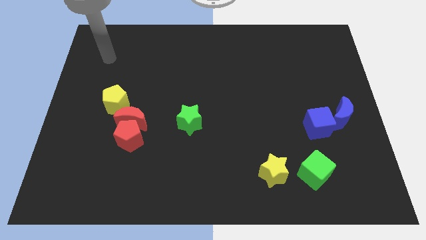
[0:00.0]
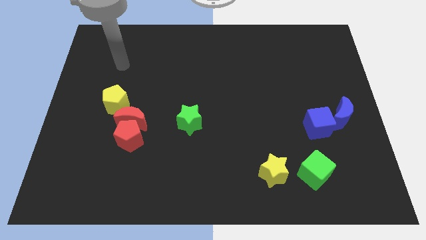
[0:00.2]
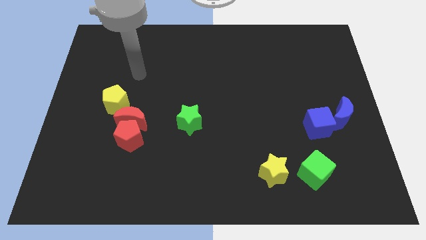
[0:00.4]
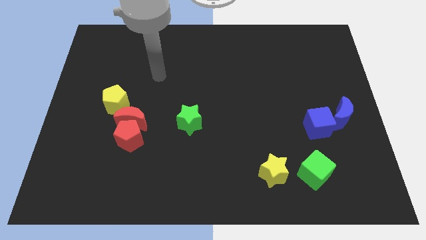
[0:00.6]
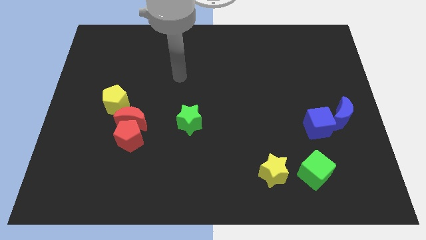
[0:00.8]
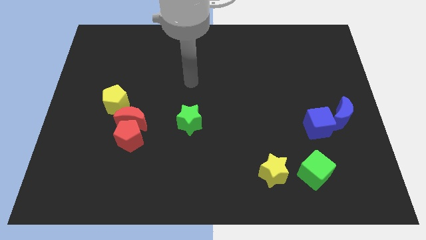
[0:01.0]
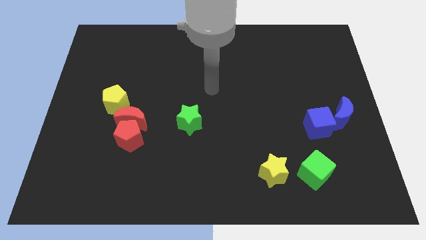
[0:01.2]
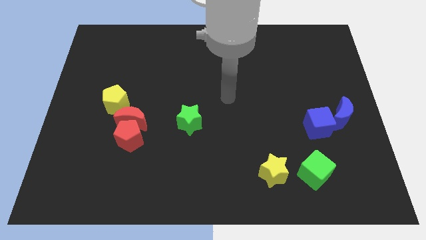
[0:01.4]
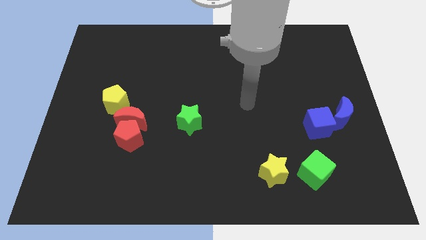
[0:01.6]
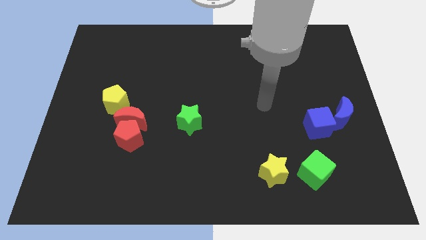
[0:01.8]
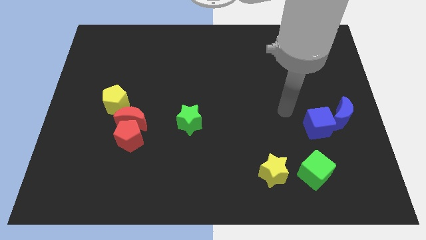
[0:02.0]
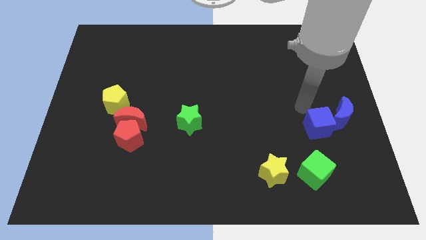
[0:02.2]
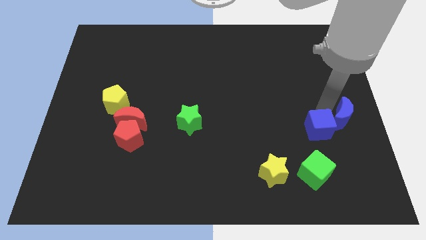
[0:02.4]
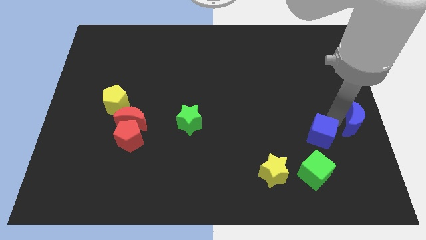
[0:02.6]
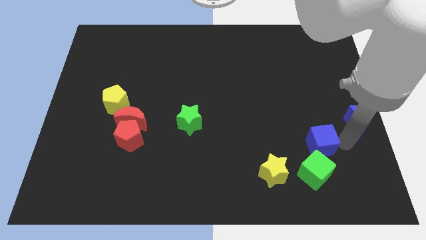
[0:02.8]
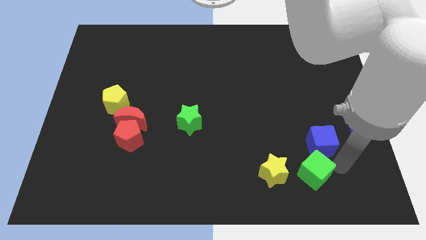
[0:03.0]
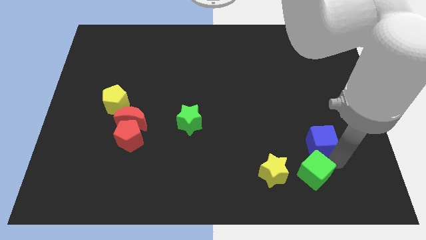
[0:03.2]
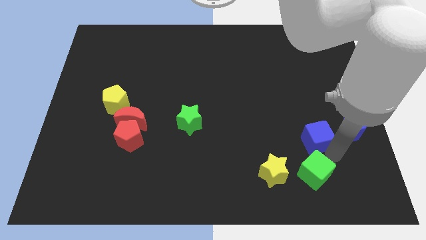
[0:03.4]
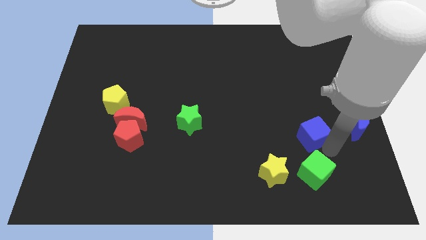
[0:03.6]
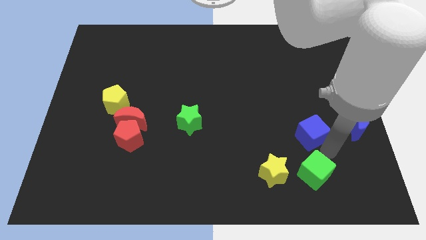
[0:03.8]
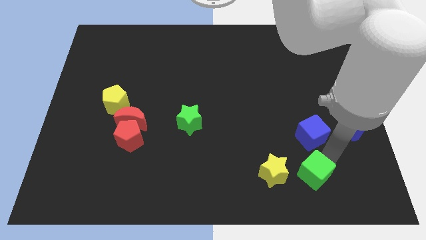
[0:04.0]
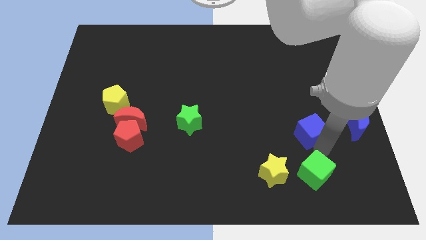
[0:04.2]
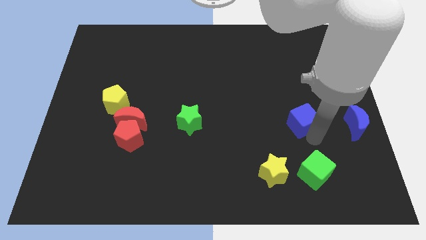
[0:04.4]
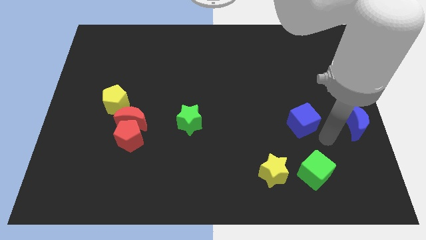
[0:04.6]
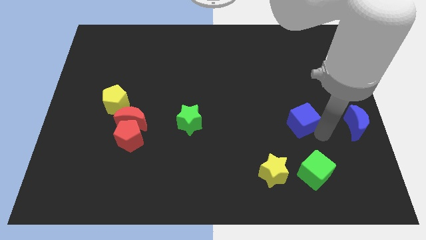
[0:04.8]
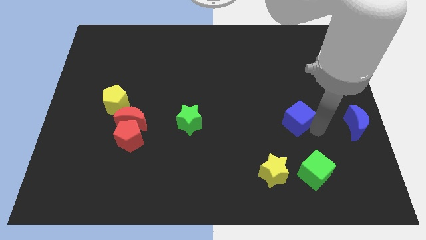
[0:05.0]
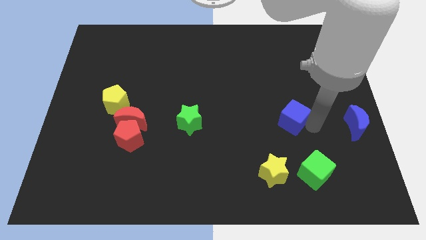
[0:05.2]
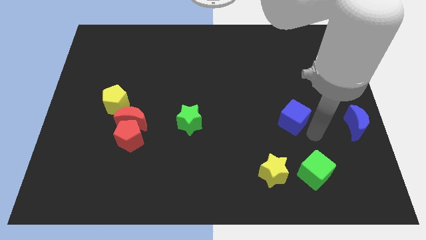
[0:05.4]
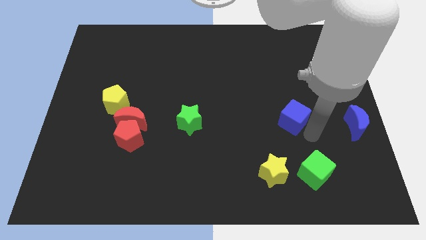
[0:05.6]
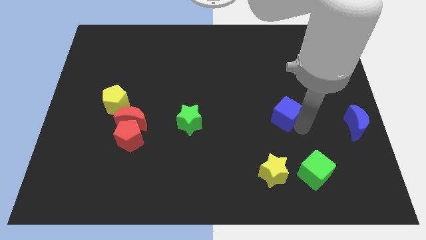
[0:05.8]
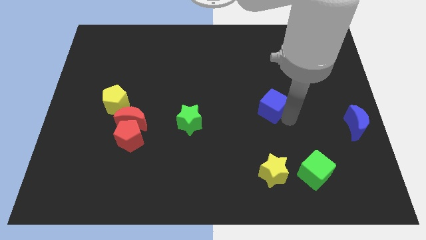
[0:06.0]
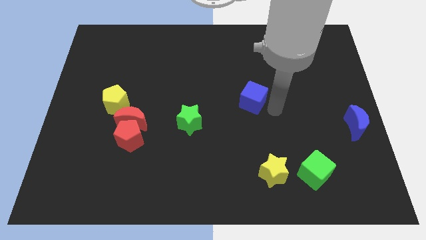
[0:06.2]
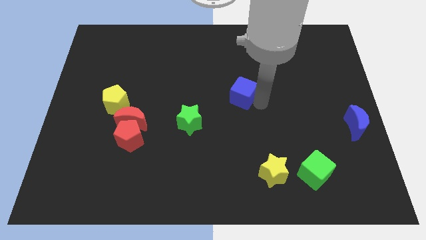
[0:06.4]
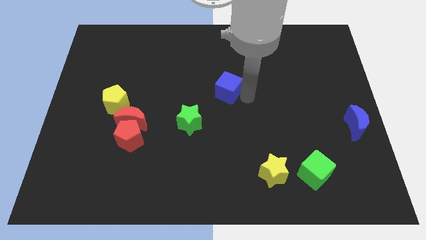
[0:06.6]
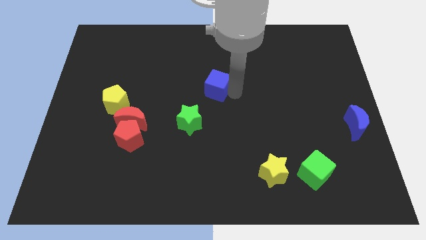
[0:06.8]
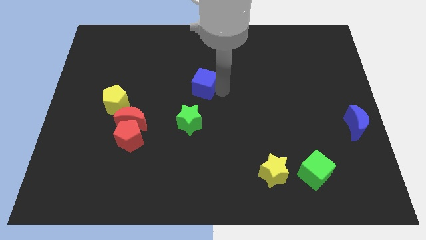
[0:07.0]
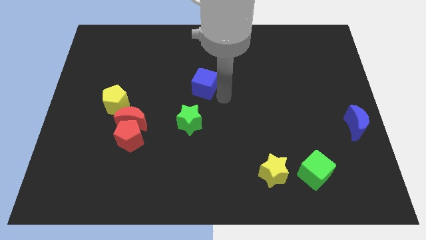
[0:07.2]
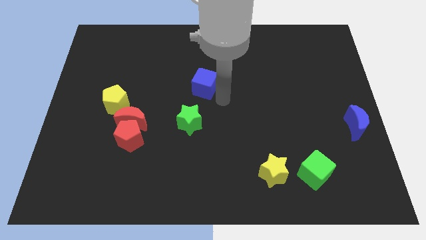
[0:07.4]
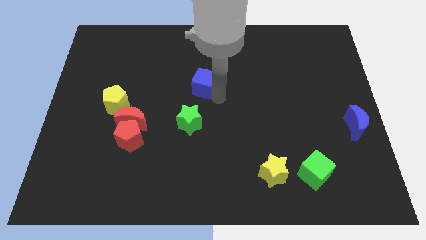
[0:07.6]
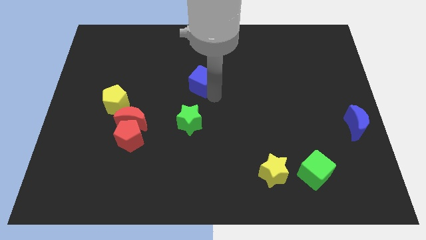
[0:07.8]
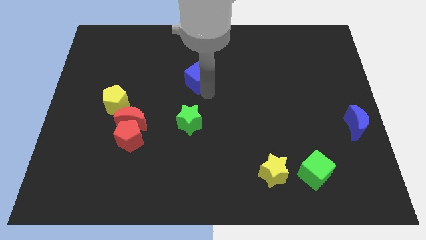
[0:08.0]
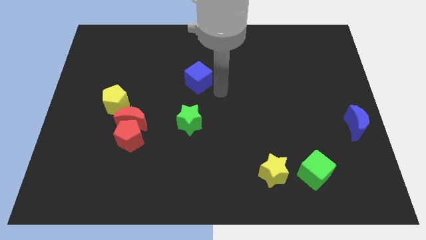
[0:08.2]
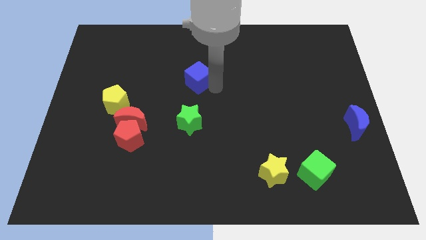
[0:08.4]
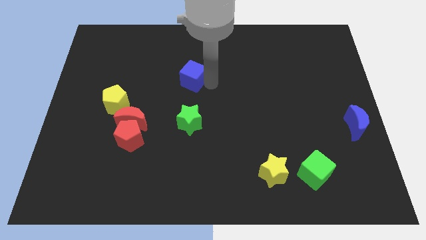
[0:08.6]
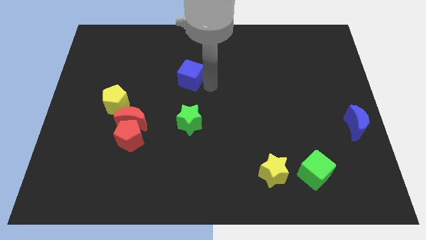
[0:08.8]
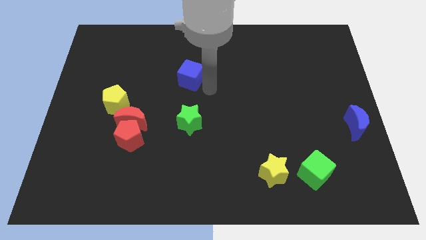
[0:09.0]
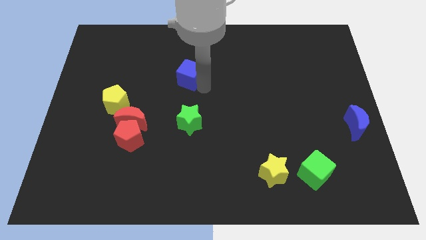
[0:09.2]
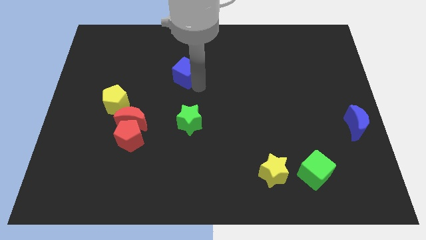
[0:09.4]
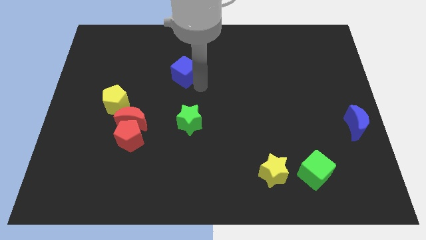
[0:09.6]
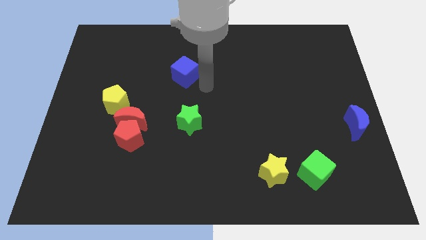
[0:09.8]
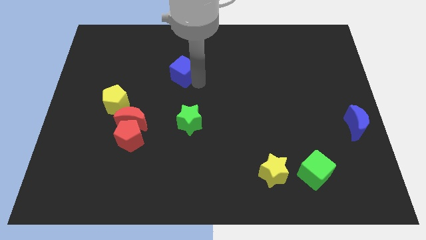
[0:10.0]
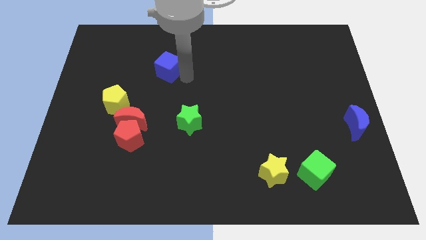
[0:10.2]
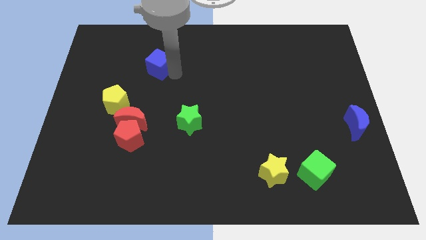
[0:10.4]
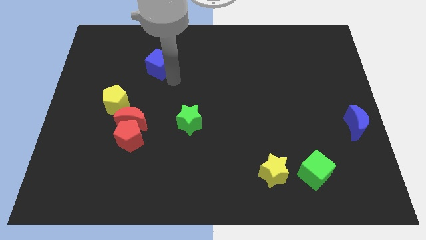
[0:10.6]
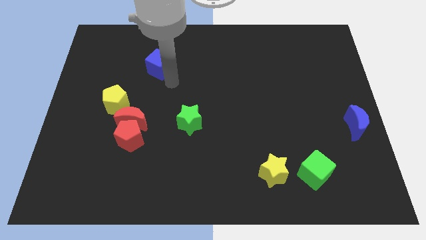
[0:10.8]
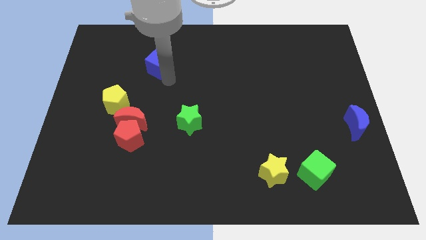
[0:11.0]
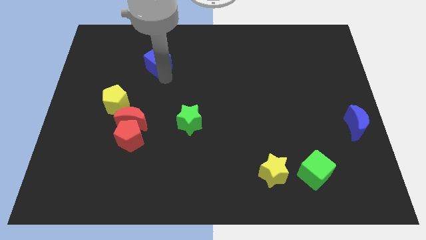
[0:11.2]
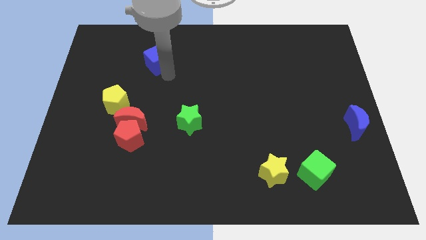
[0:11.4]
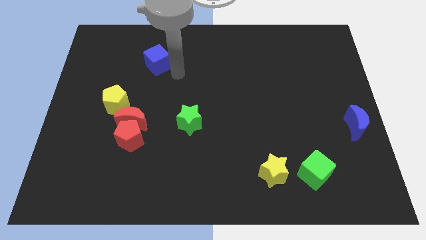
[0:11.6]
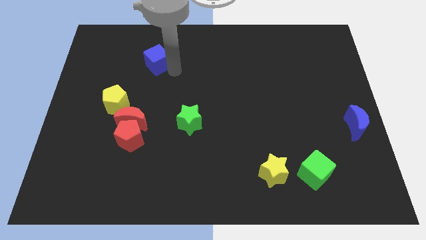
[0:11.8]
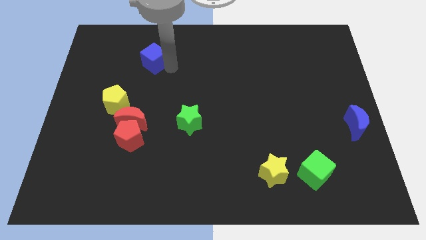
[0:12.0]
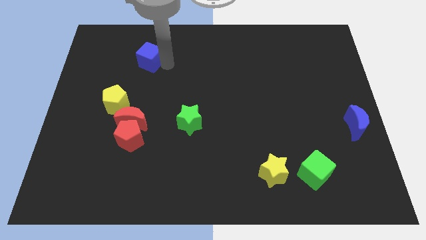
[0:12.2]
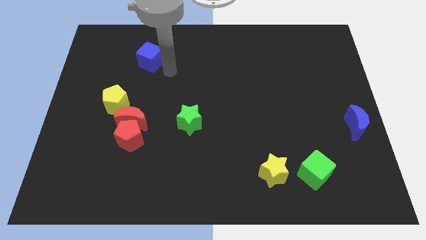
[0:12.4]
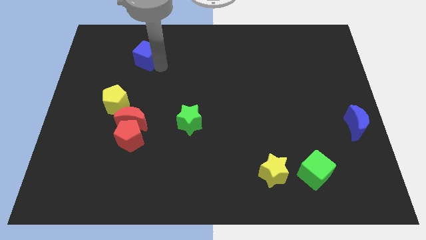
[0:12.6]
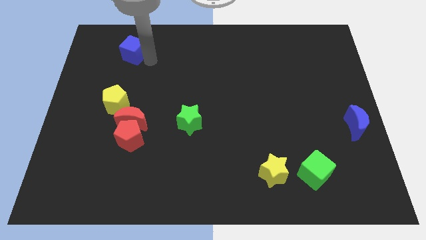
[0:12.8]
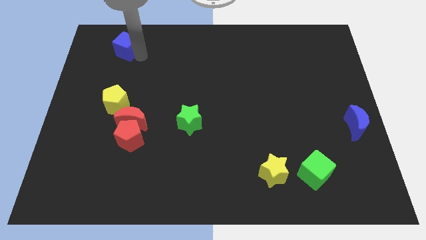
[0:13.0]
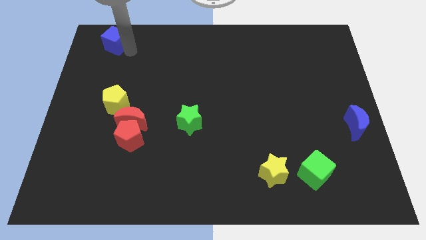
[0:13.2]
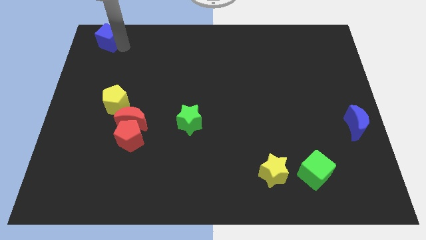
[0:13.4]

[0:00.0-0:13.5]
push the blue cube to the upper left corner

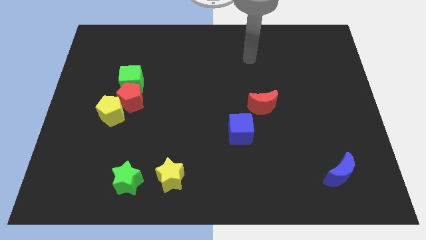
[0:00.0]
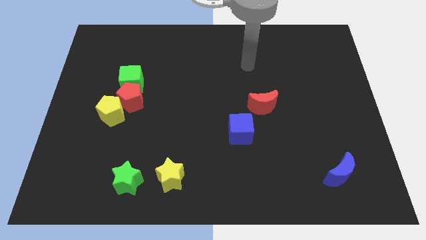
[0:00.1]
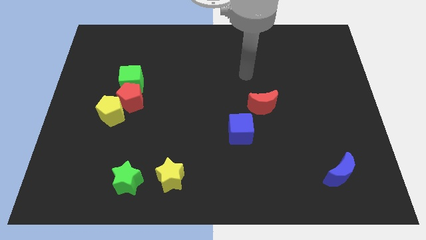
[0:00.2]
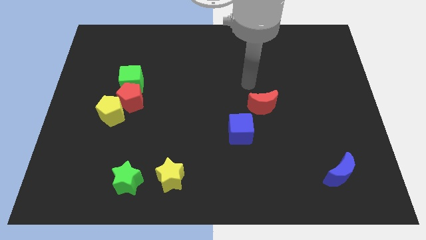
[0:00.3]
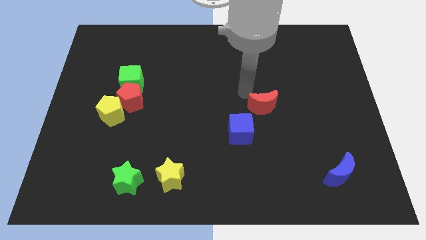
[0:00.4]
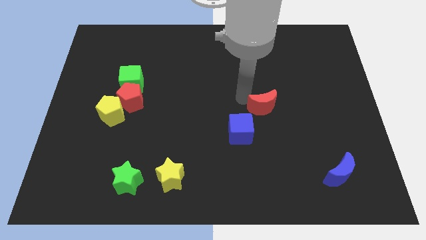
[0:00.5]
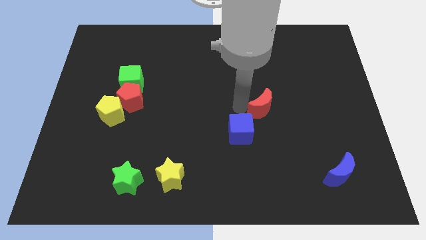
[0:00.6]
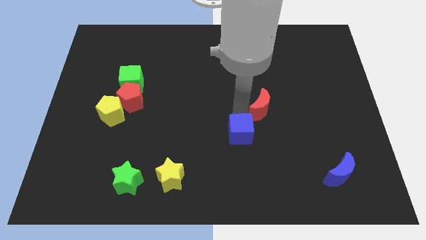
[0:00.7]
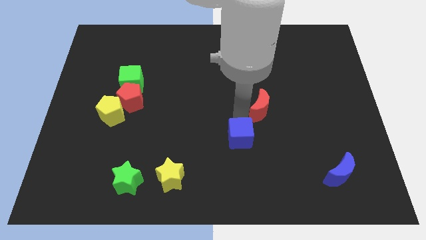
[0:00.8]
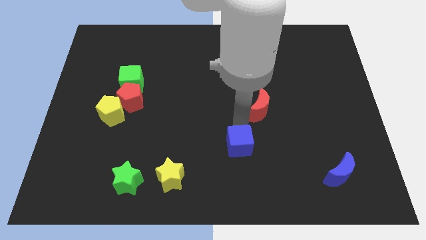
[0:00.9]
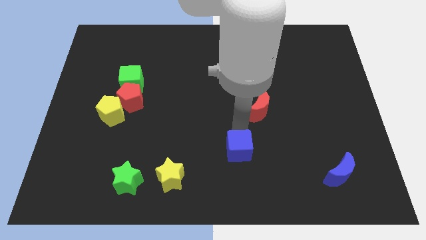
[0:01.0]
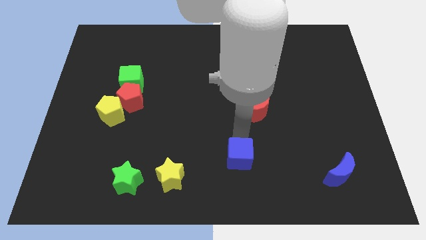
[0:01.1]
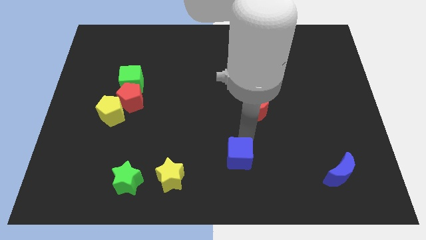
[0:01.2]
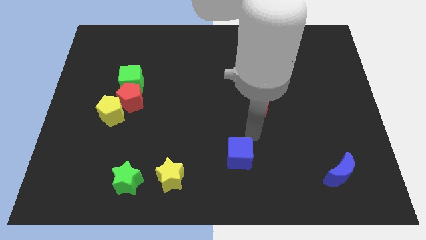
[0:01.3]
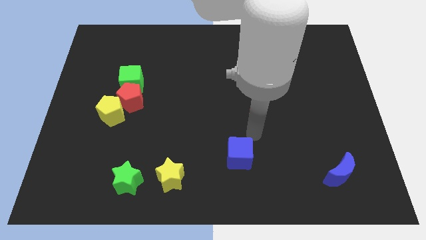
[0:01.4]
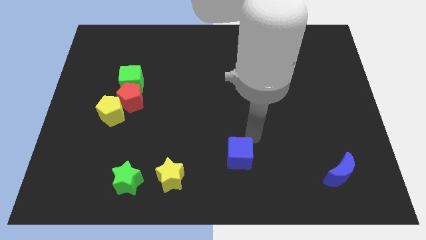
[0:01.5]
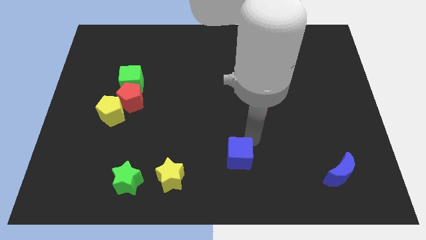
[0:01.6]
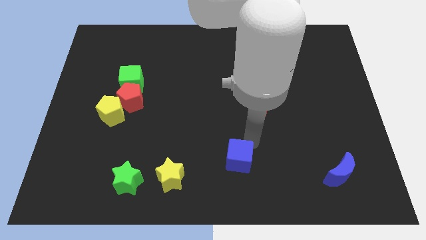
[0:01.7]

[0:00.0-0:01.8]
move the blue cube to the bottom side
